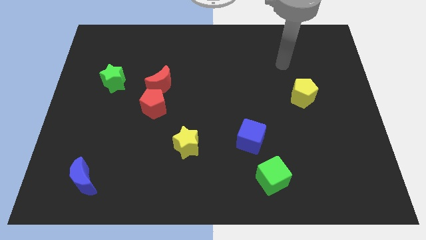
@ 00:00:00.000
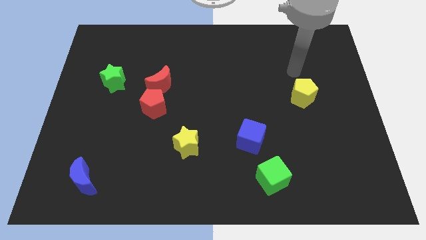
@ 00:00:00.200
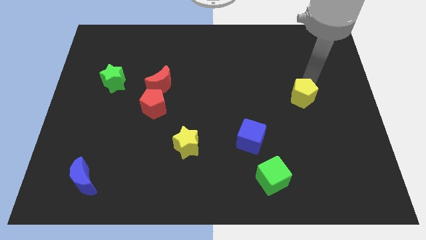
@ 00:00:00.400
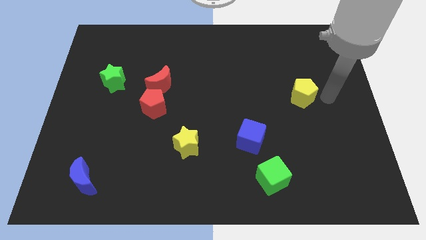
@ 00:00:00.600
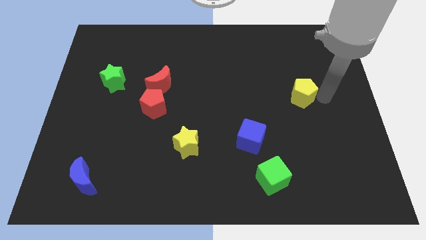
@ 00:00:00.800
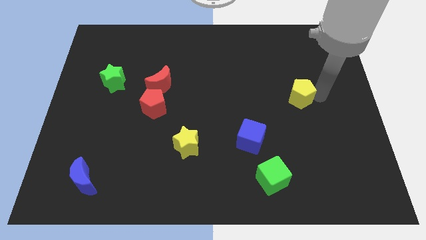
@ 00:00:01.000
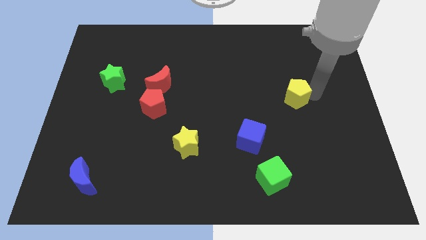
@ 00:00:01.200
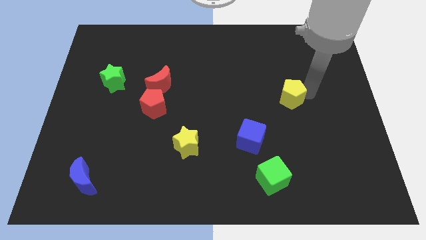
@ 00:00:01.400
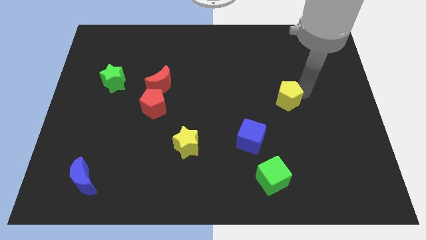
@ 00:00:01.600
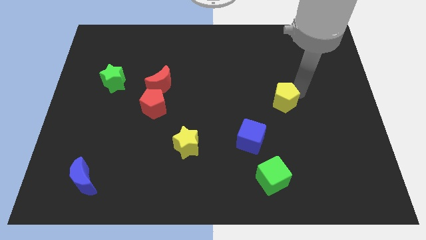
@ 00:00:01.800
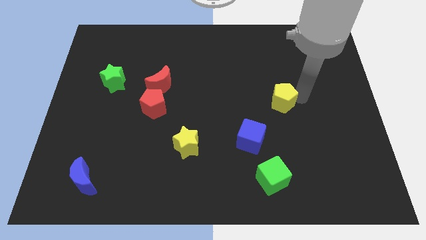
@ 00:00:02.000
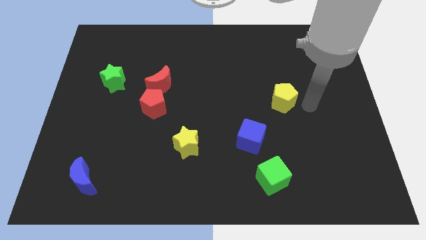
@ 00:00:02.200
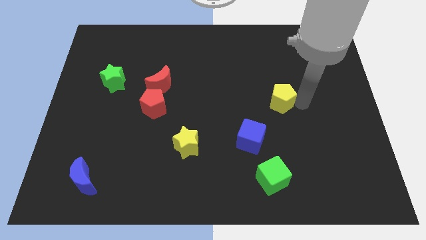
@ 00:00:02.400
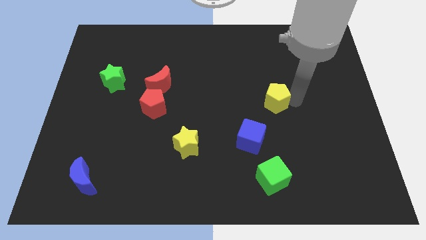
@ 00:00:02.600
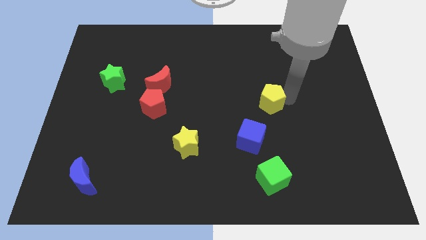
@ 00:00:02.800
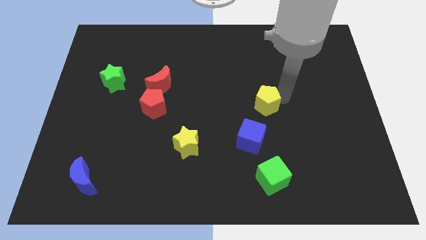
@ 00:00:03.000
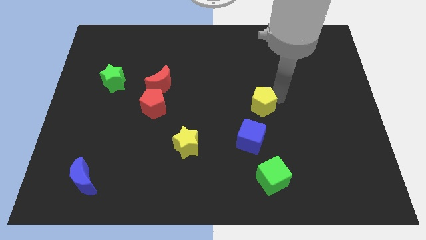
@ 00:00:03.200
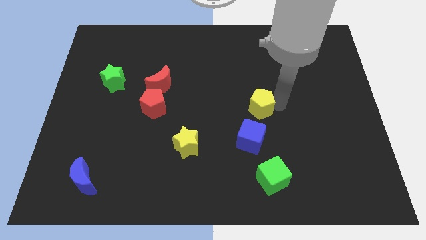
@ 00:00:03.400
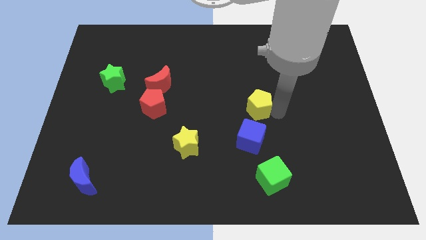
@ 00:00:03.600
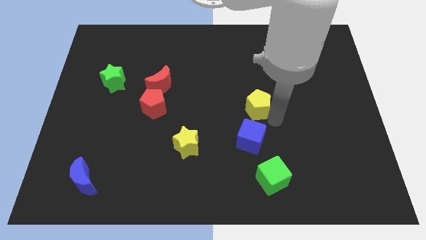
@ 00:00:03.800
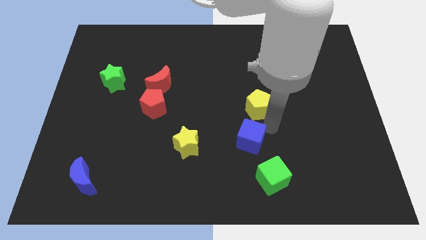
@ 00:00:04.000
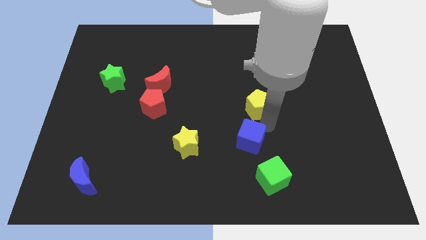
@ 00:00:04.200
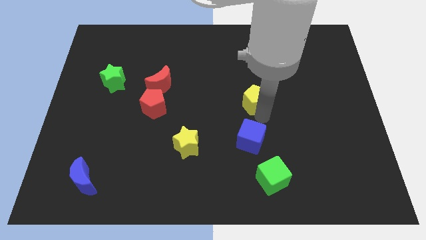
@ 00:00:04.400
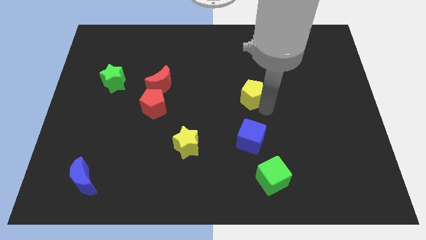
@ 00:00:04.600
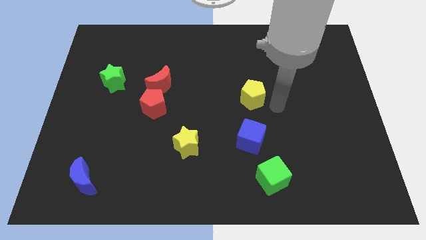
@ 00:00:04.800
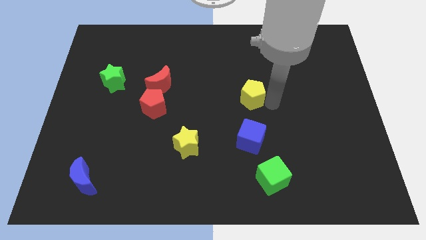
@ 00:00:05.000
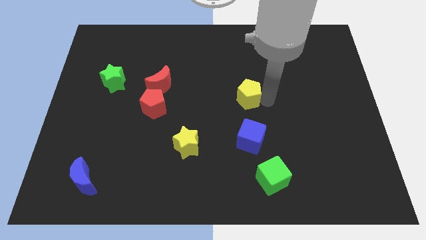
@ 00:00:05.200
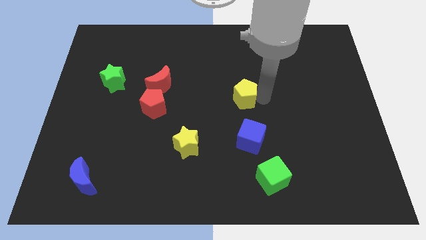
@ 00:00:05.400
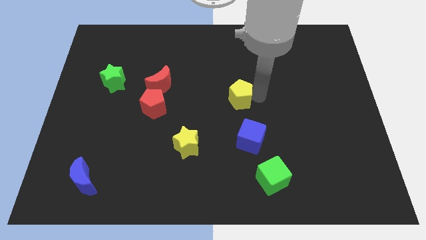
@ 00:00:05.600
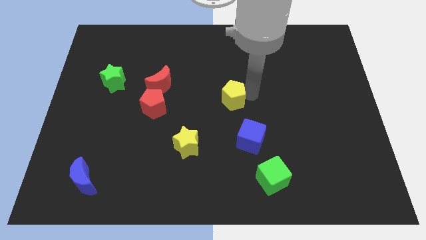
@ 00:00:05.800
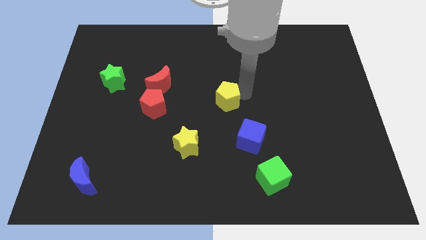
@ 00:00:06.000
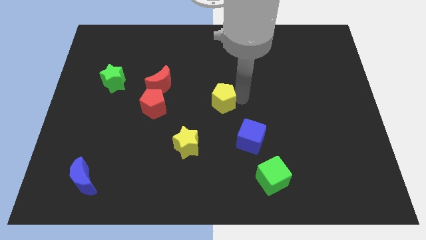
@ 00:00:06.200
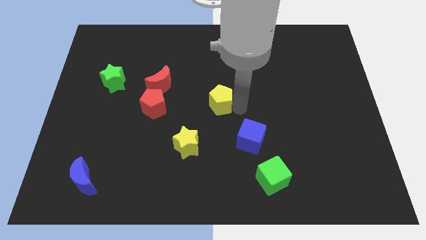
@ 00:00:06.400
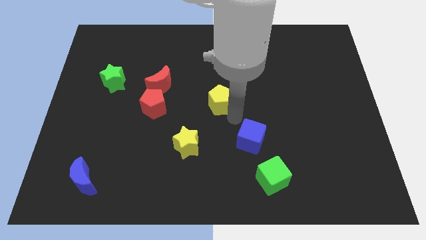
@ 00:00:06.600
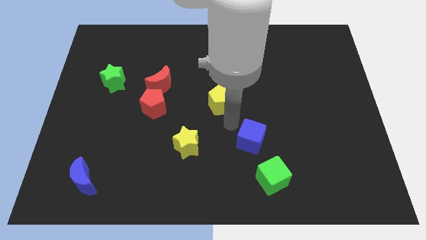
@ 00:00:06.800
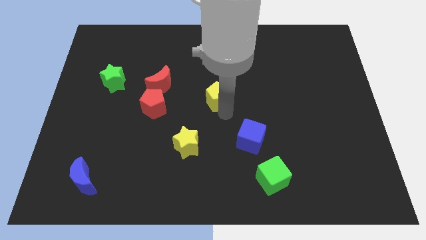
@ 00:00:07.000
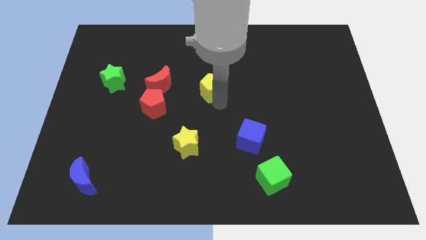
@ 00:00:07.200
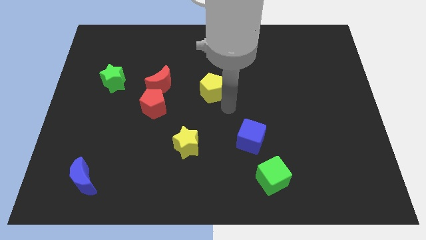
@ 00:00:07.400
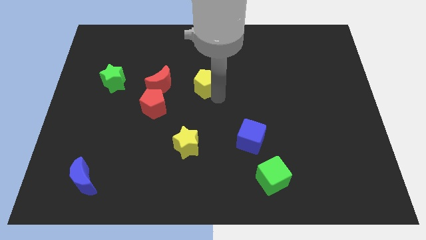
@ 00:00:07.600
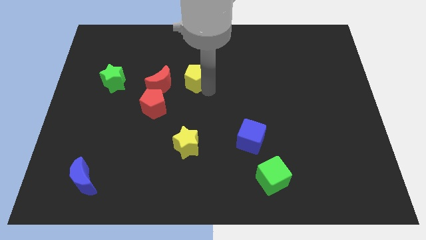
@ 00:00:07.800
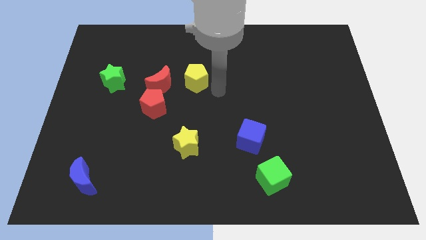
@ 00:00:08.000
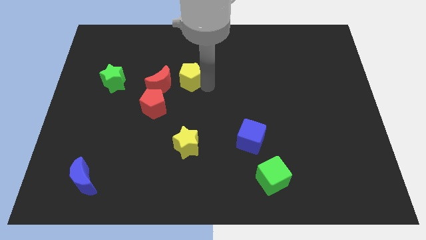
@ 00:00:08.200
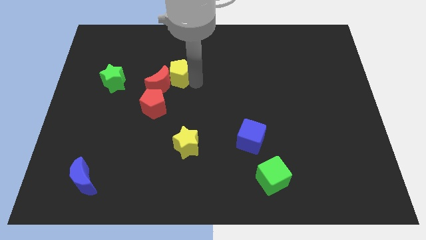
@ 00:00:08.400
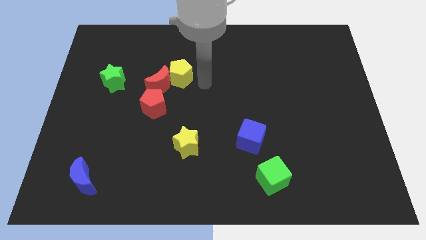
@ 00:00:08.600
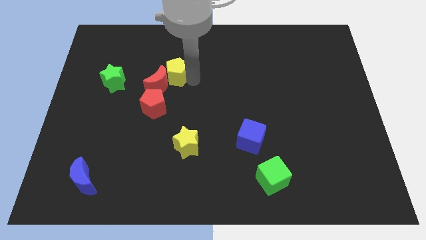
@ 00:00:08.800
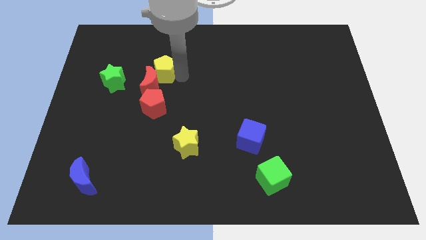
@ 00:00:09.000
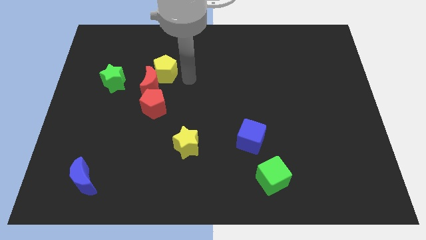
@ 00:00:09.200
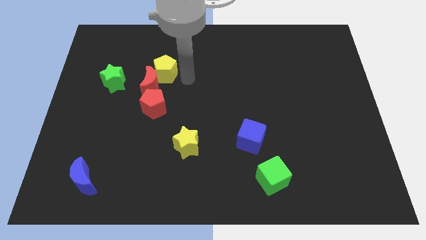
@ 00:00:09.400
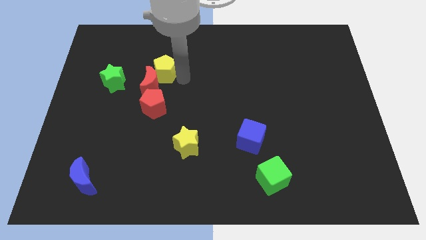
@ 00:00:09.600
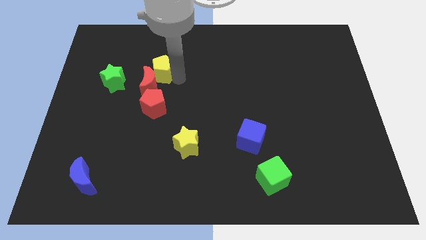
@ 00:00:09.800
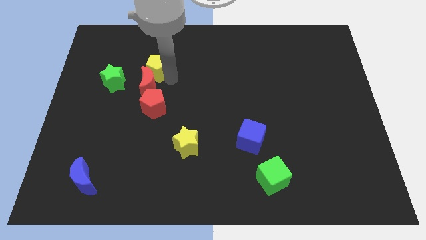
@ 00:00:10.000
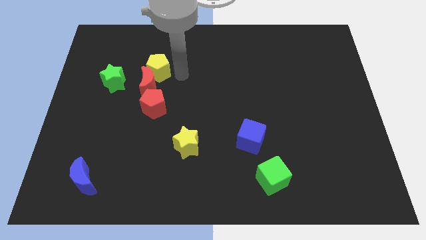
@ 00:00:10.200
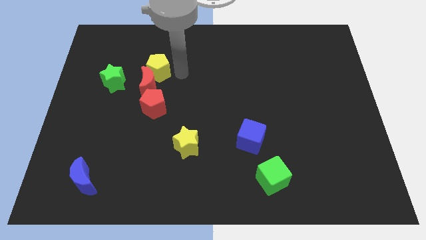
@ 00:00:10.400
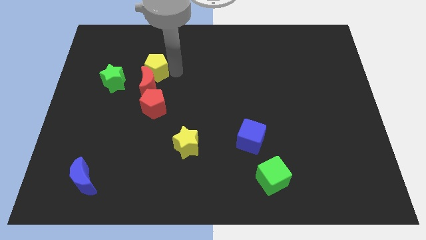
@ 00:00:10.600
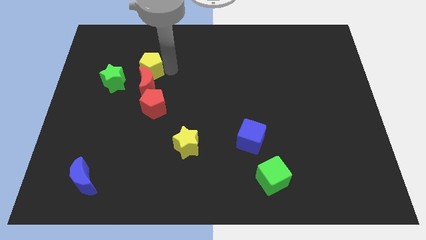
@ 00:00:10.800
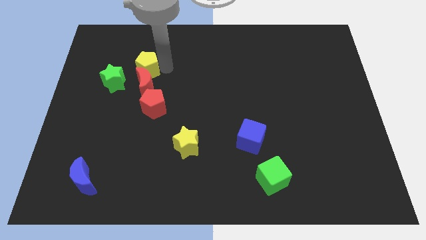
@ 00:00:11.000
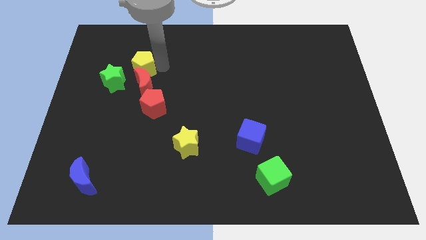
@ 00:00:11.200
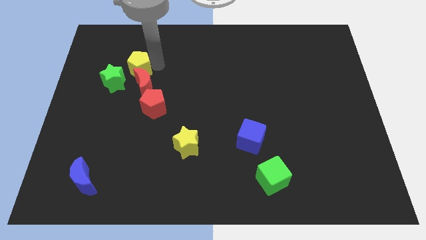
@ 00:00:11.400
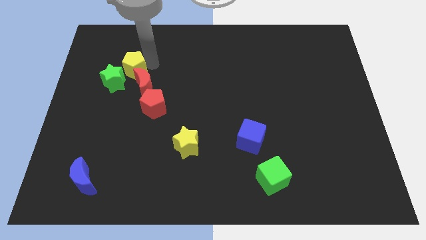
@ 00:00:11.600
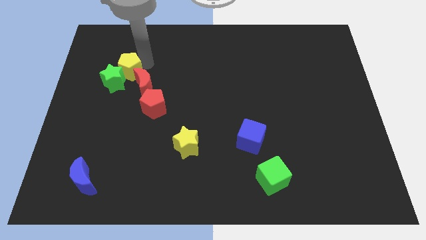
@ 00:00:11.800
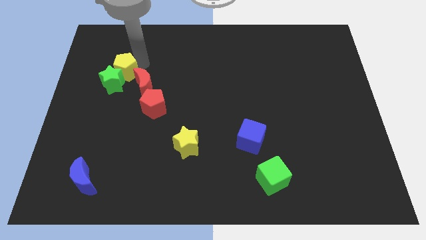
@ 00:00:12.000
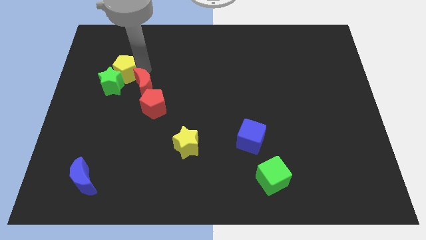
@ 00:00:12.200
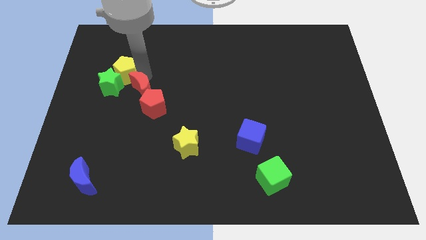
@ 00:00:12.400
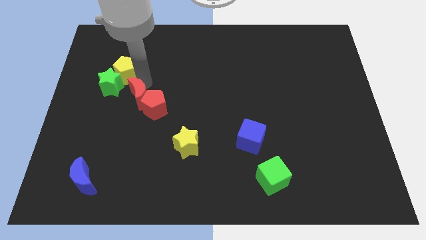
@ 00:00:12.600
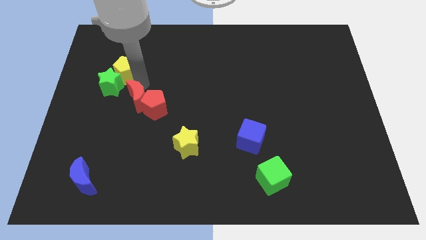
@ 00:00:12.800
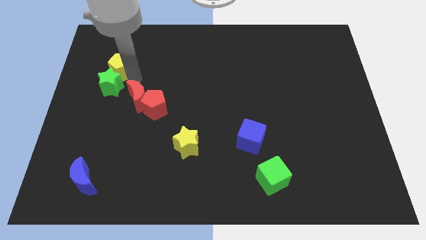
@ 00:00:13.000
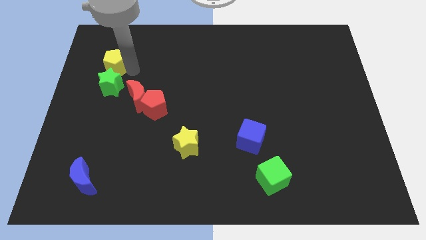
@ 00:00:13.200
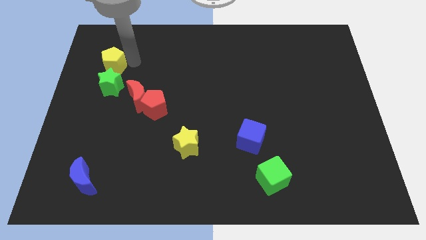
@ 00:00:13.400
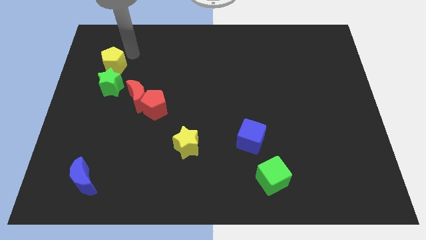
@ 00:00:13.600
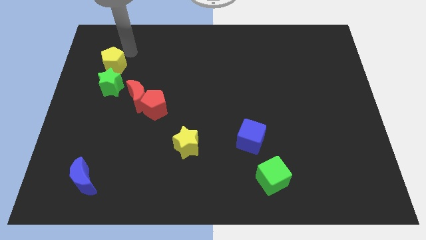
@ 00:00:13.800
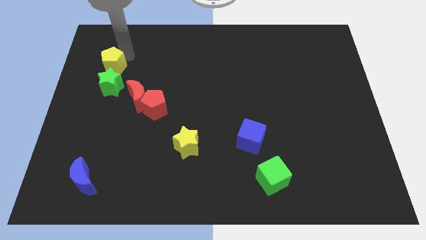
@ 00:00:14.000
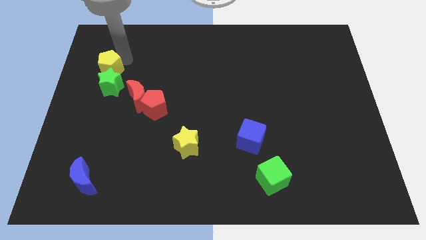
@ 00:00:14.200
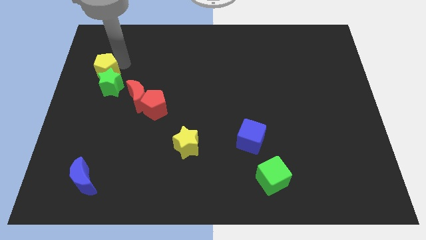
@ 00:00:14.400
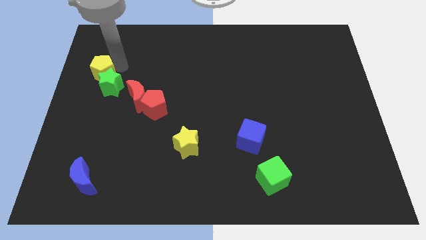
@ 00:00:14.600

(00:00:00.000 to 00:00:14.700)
move the yellow pentagon to the left side of the board

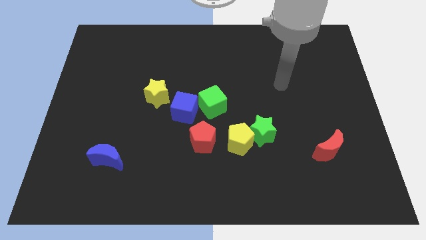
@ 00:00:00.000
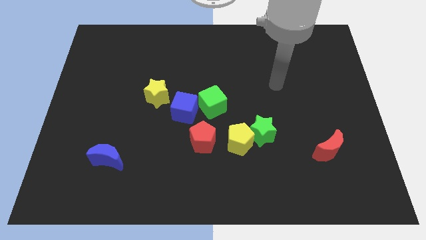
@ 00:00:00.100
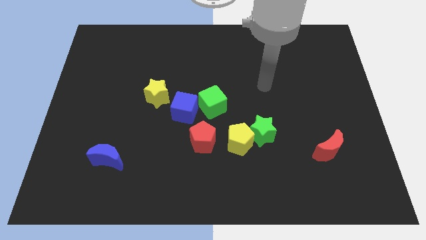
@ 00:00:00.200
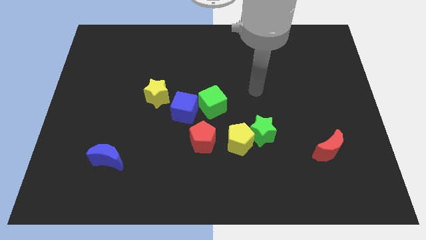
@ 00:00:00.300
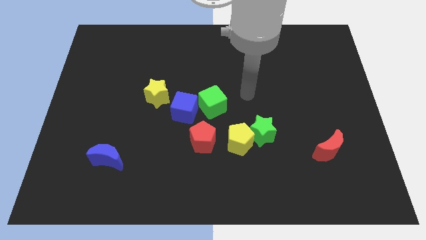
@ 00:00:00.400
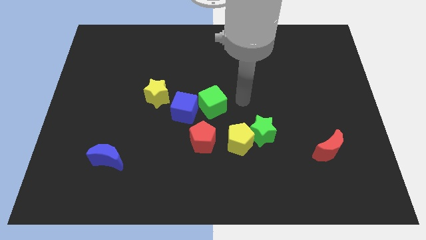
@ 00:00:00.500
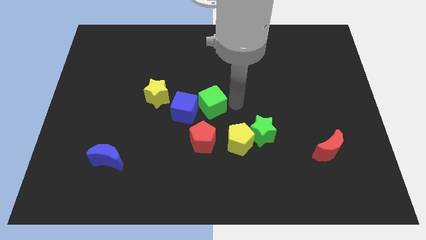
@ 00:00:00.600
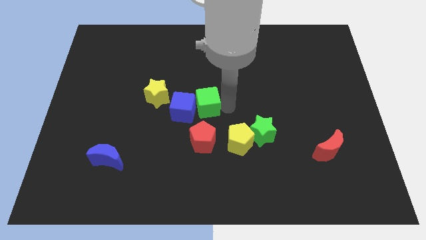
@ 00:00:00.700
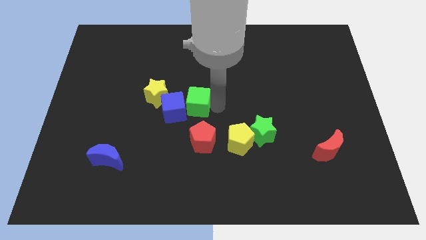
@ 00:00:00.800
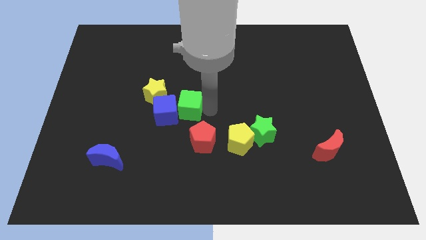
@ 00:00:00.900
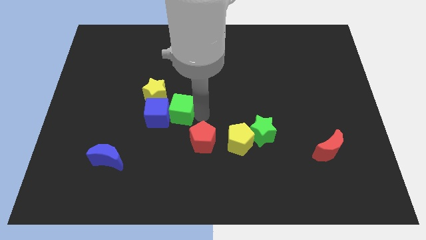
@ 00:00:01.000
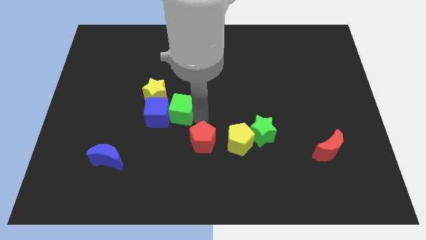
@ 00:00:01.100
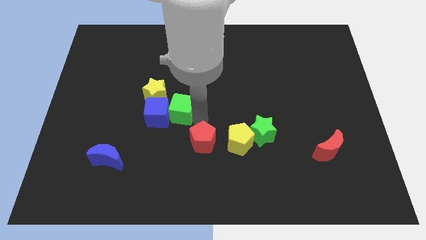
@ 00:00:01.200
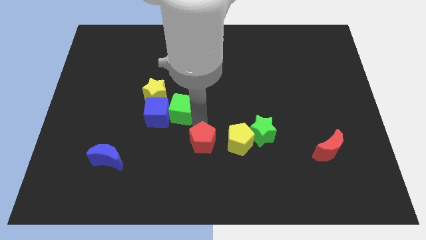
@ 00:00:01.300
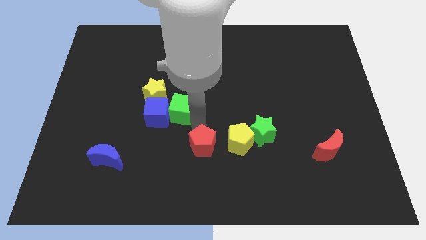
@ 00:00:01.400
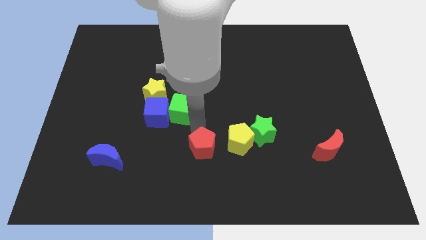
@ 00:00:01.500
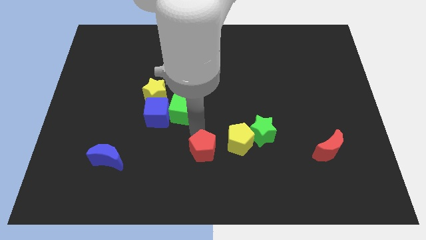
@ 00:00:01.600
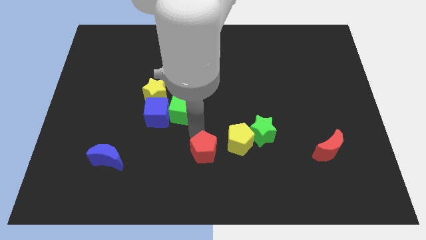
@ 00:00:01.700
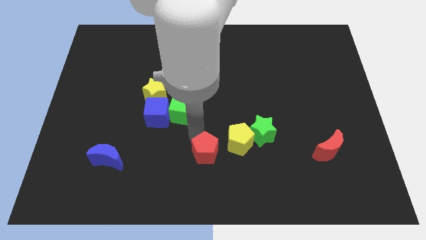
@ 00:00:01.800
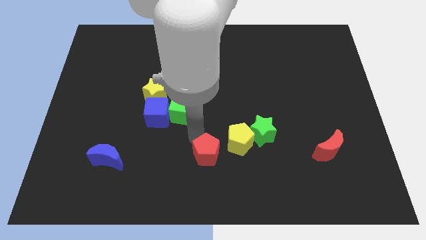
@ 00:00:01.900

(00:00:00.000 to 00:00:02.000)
slide the red pentagon to the bottom
